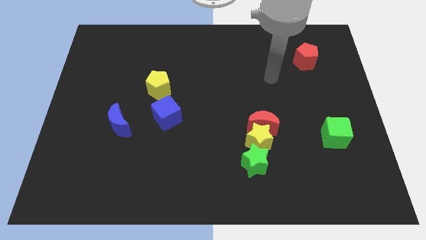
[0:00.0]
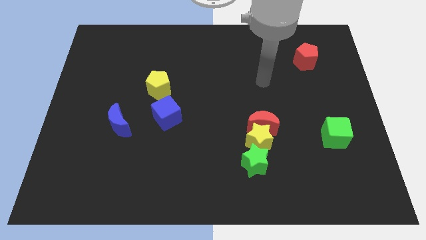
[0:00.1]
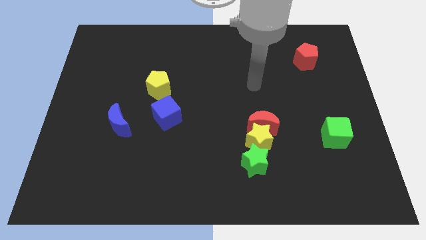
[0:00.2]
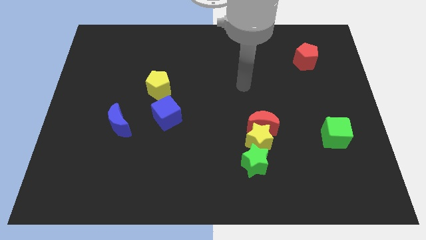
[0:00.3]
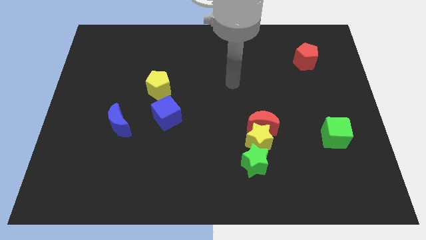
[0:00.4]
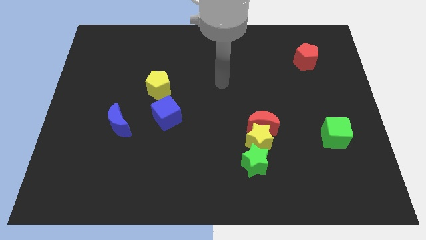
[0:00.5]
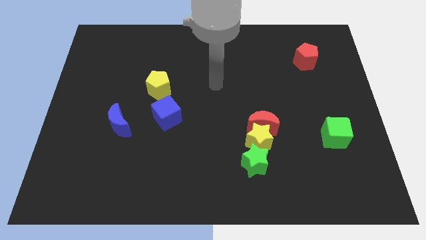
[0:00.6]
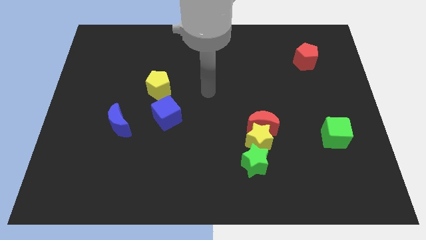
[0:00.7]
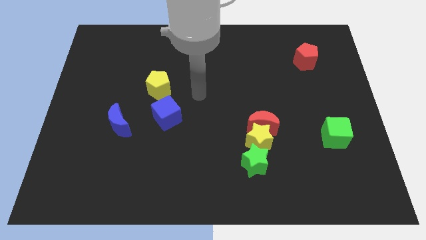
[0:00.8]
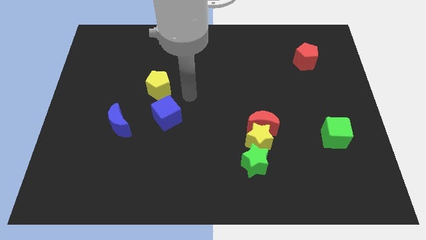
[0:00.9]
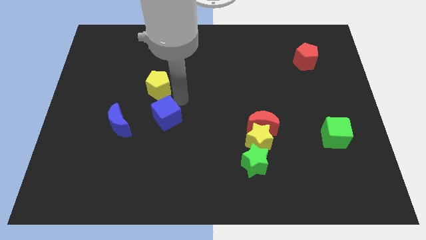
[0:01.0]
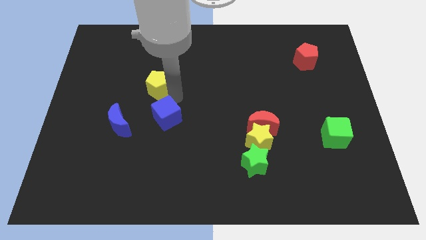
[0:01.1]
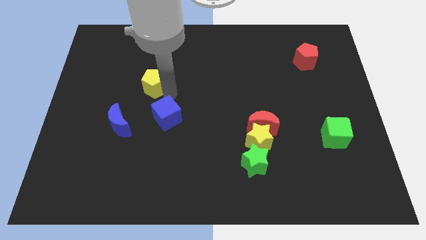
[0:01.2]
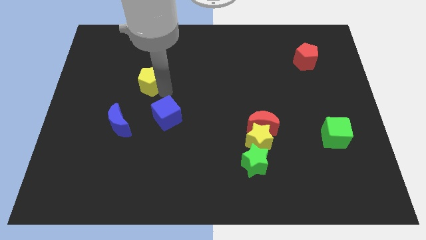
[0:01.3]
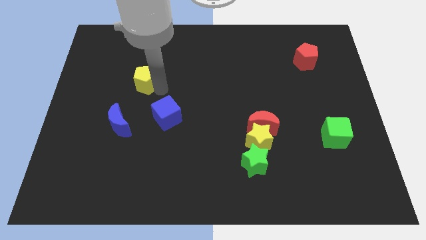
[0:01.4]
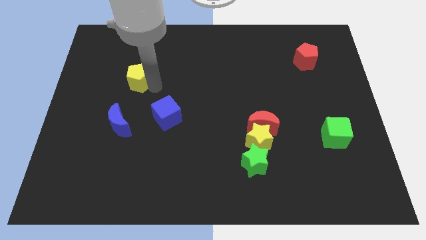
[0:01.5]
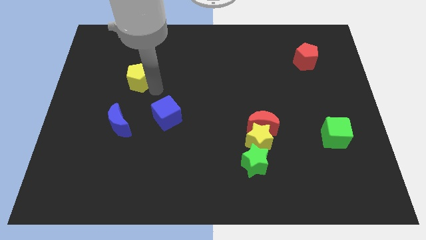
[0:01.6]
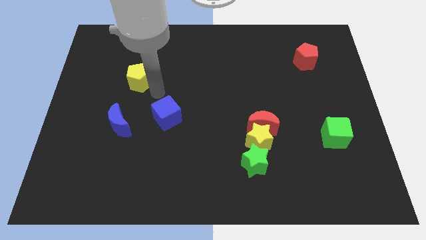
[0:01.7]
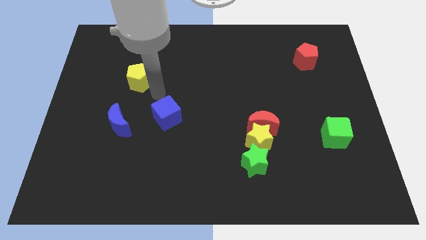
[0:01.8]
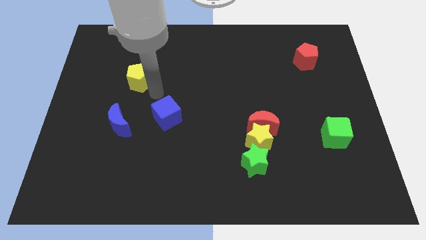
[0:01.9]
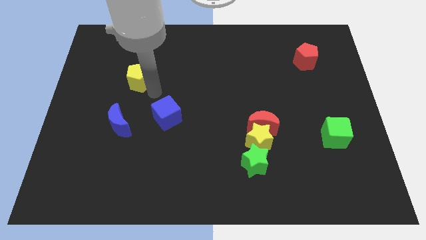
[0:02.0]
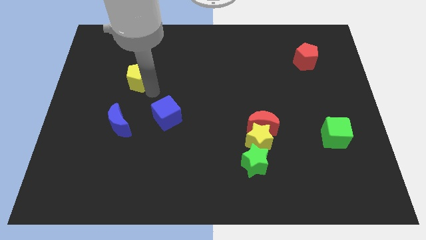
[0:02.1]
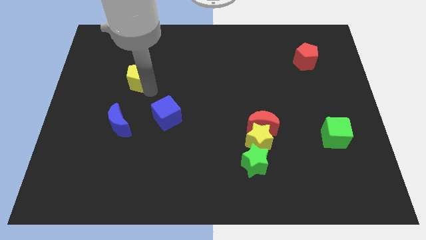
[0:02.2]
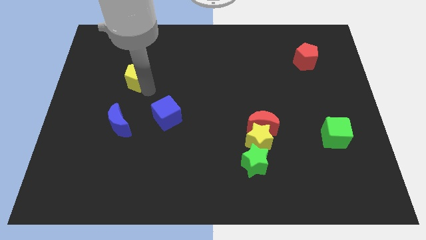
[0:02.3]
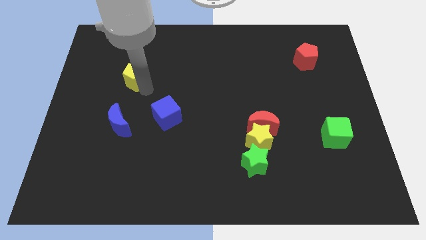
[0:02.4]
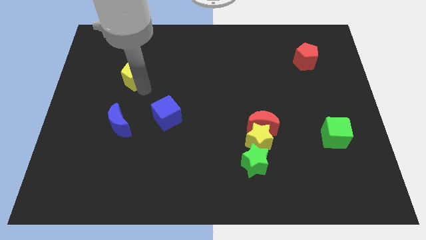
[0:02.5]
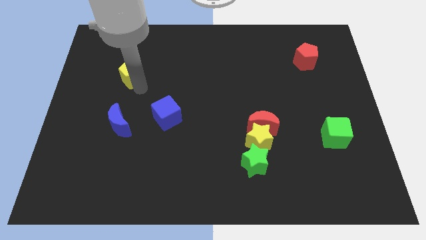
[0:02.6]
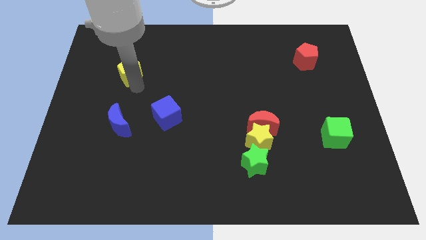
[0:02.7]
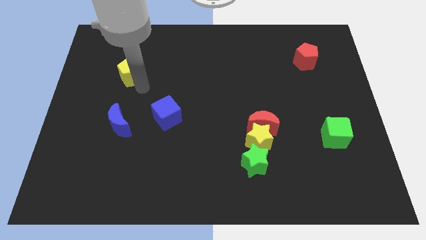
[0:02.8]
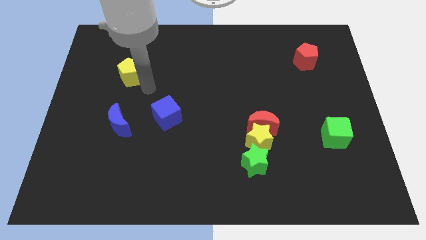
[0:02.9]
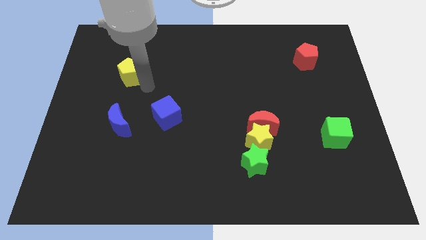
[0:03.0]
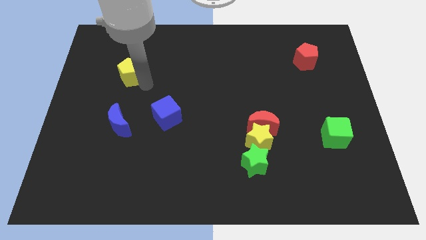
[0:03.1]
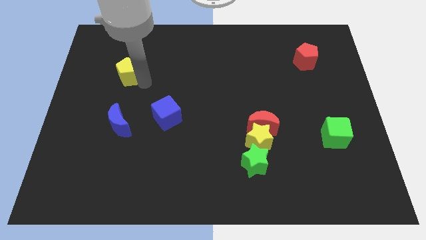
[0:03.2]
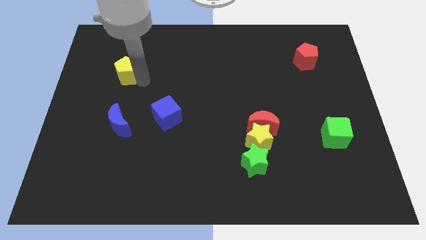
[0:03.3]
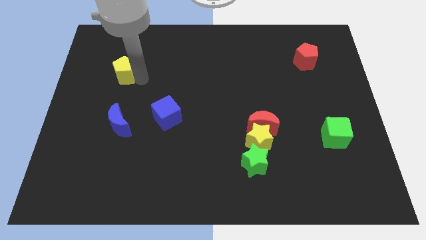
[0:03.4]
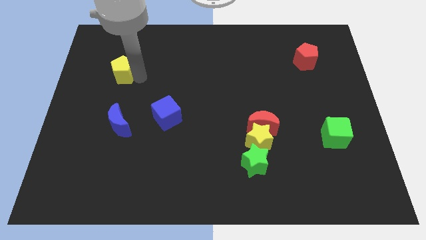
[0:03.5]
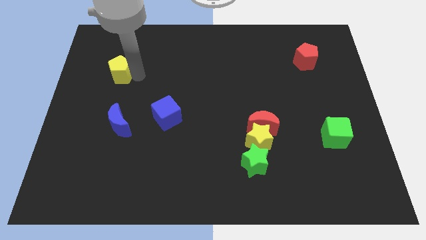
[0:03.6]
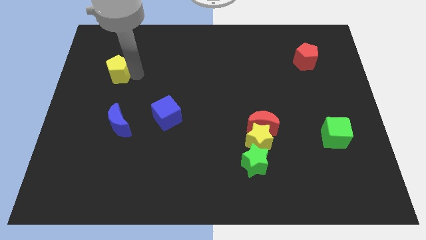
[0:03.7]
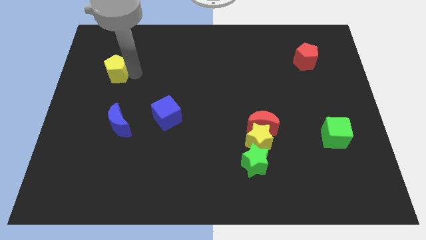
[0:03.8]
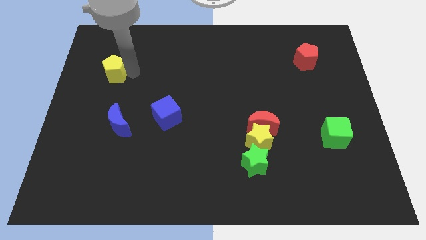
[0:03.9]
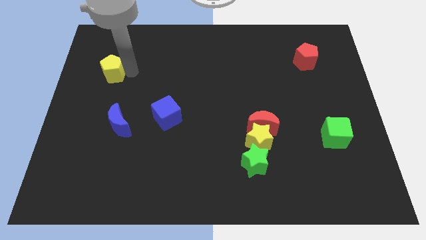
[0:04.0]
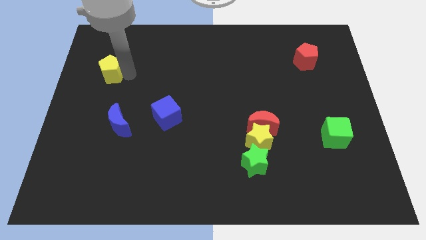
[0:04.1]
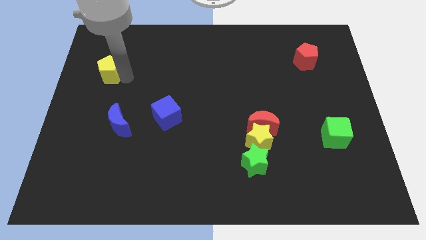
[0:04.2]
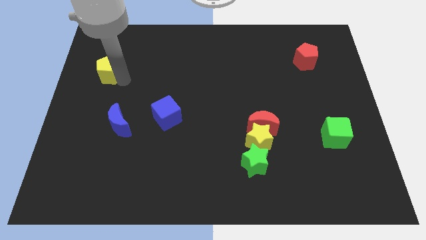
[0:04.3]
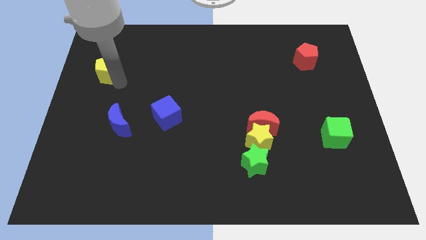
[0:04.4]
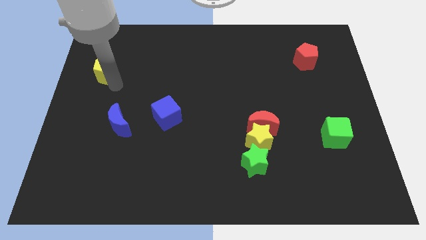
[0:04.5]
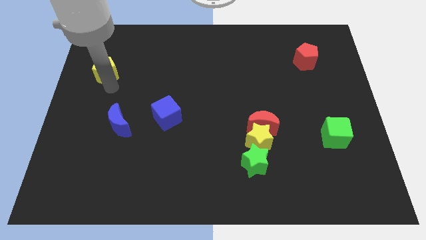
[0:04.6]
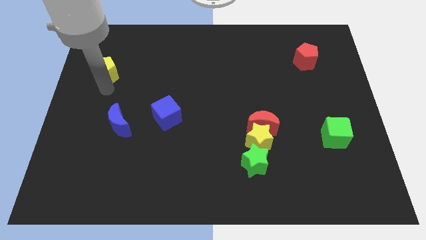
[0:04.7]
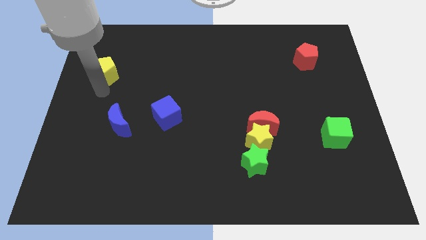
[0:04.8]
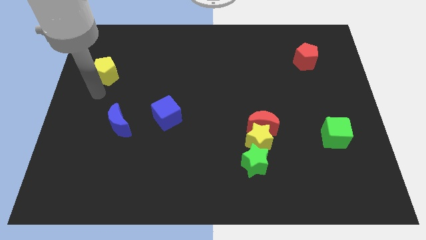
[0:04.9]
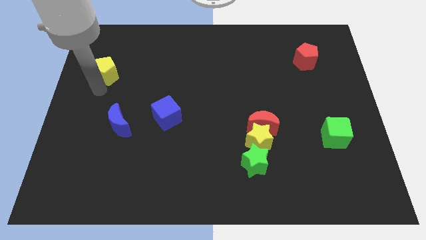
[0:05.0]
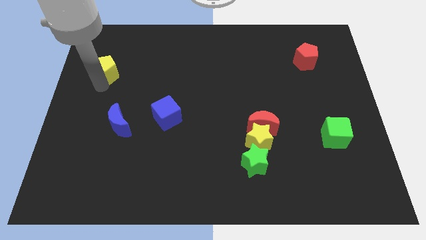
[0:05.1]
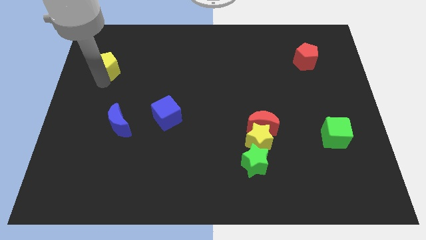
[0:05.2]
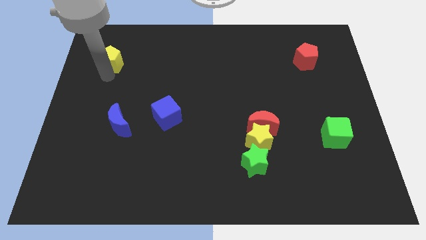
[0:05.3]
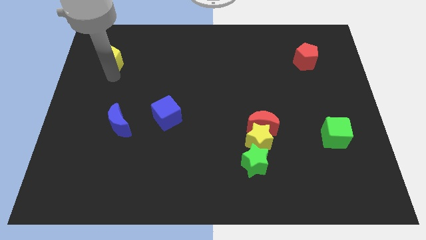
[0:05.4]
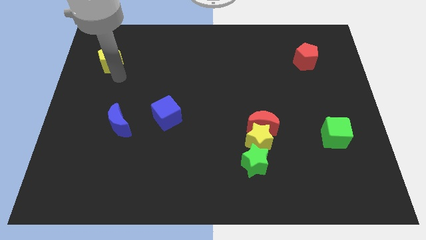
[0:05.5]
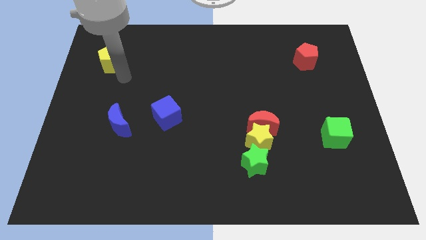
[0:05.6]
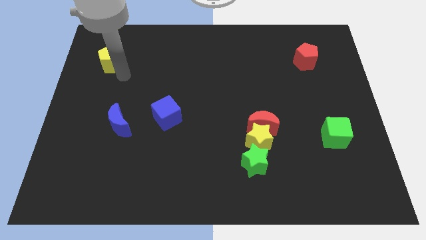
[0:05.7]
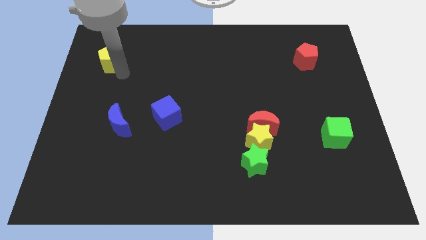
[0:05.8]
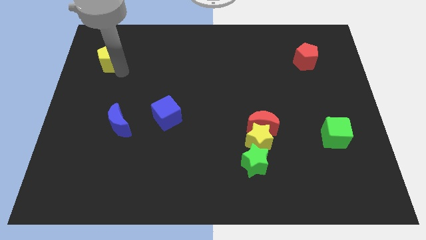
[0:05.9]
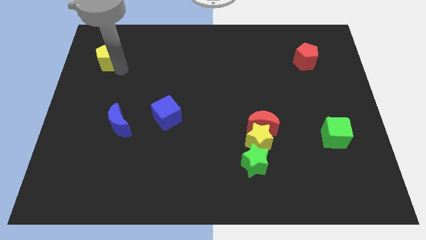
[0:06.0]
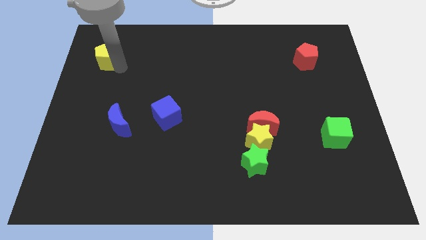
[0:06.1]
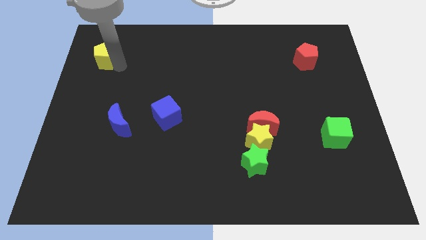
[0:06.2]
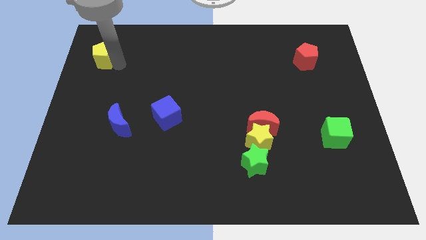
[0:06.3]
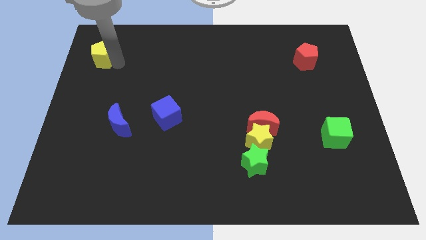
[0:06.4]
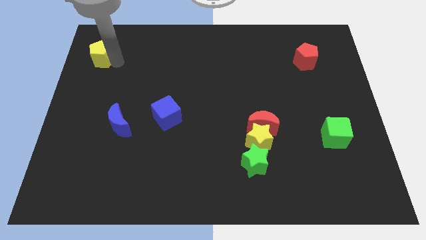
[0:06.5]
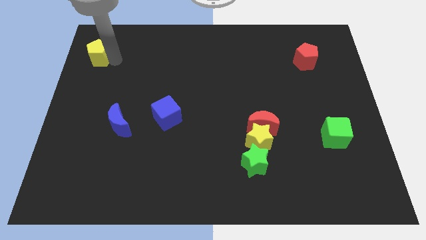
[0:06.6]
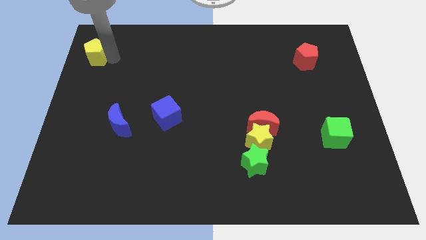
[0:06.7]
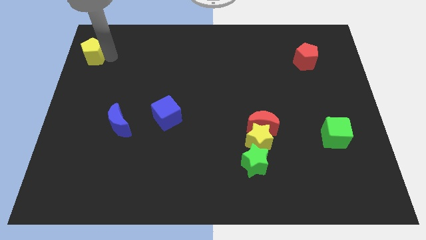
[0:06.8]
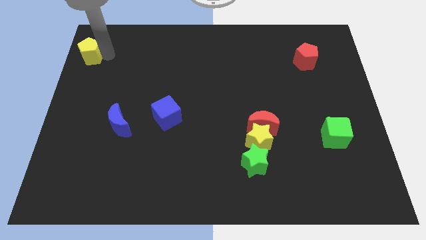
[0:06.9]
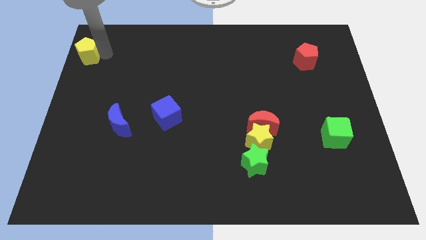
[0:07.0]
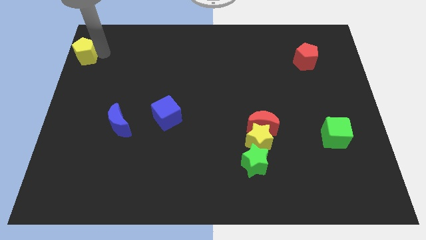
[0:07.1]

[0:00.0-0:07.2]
push the yellow pentagon to the top left

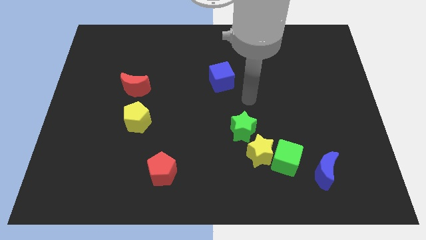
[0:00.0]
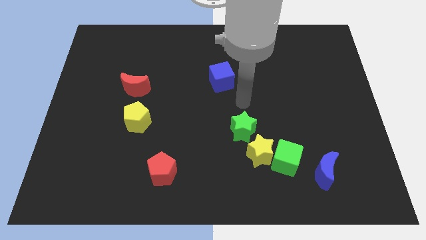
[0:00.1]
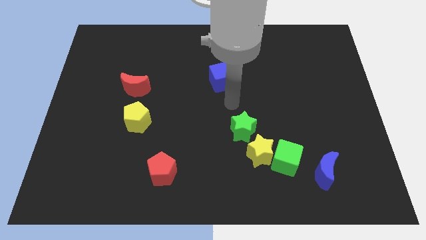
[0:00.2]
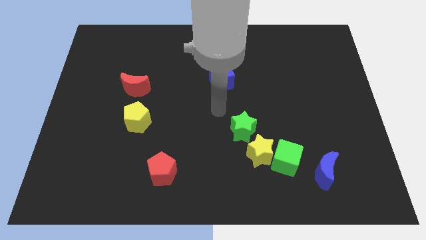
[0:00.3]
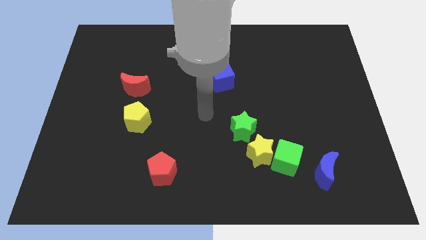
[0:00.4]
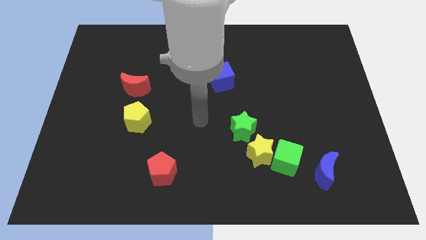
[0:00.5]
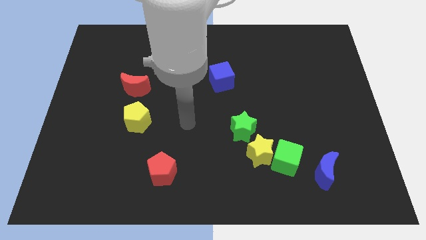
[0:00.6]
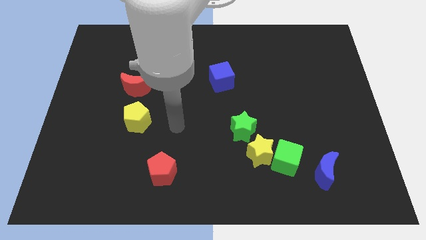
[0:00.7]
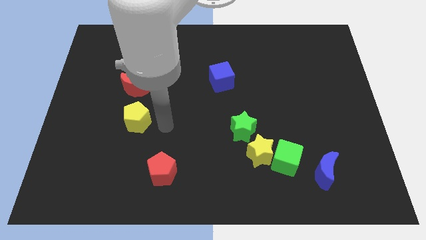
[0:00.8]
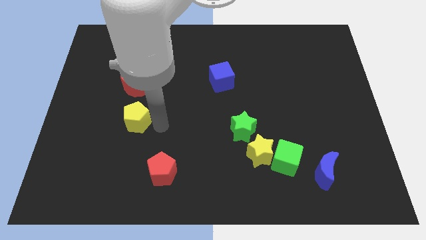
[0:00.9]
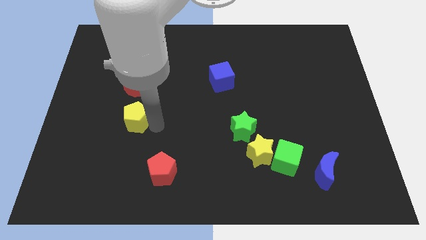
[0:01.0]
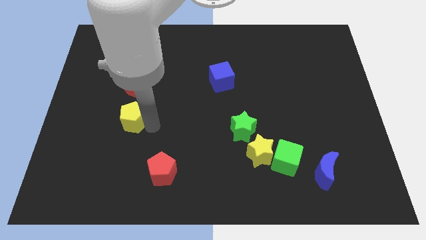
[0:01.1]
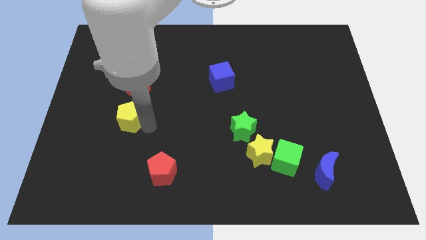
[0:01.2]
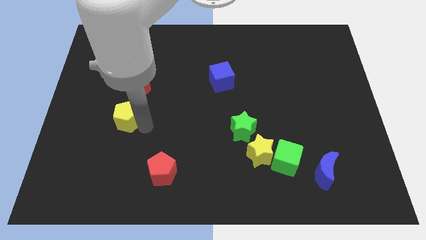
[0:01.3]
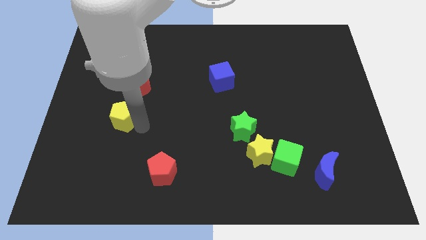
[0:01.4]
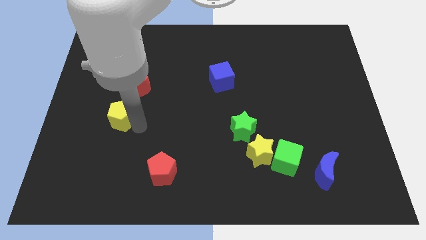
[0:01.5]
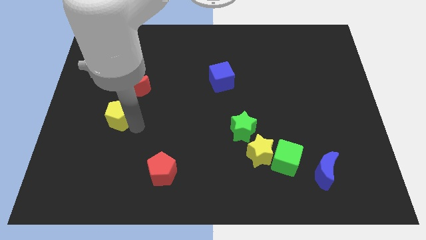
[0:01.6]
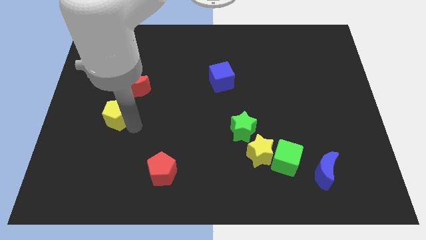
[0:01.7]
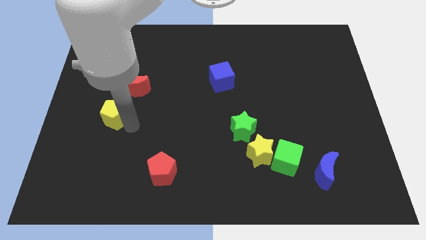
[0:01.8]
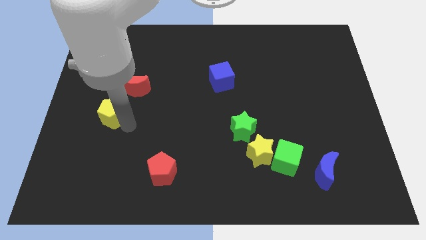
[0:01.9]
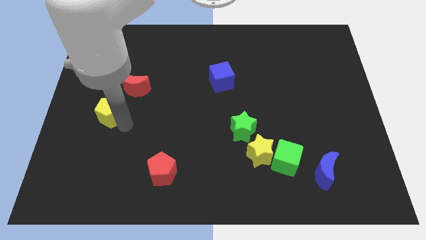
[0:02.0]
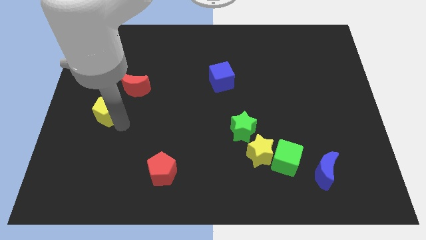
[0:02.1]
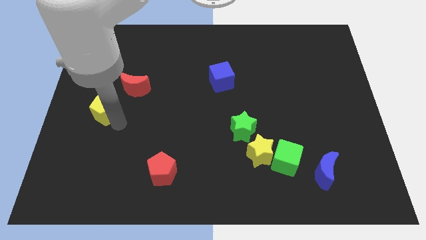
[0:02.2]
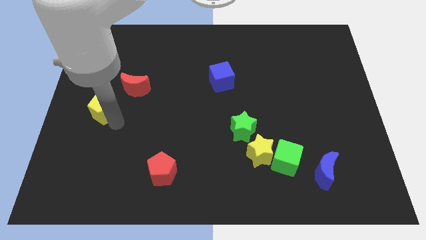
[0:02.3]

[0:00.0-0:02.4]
move the yellow pentagon to the left side
